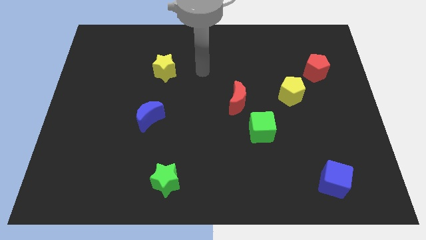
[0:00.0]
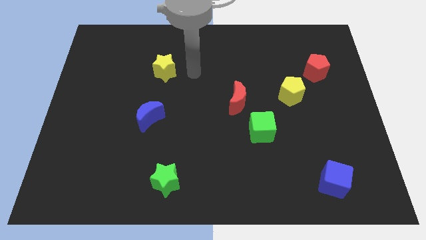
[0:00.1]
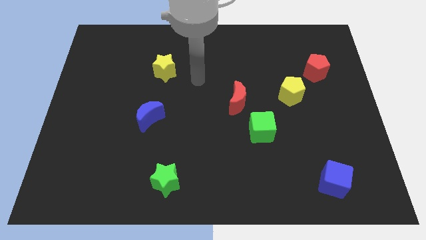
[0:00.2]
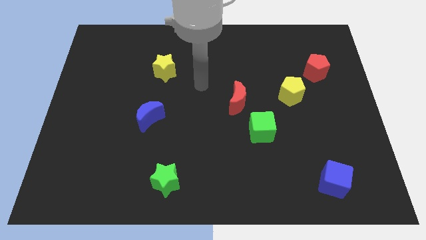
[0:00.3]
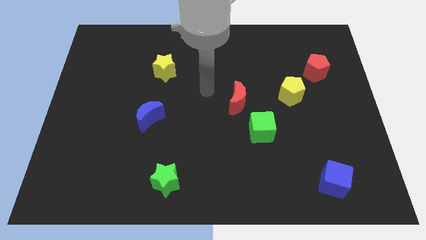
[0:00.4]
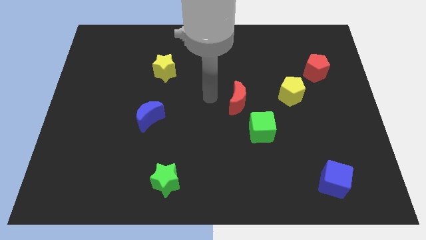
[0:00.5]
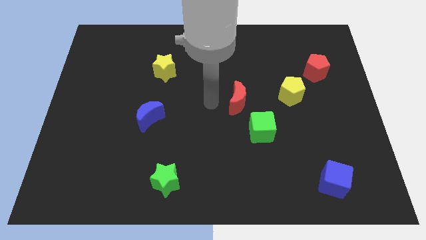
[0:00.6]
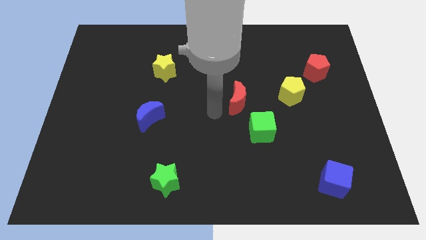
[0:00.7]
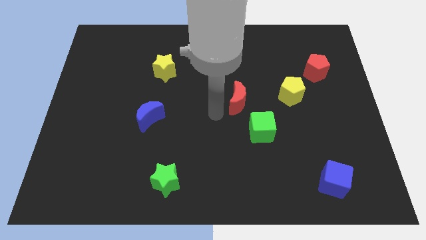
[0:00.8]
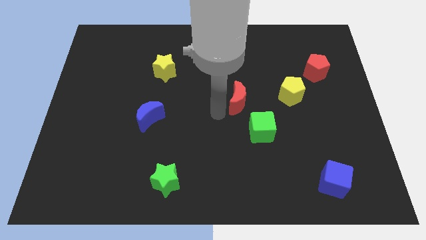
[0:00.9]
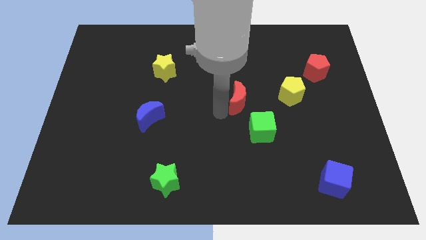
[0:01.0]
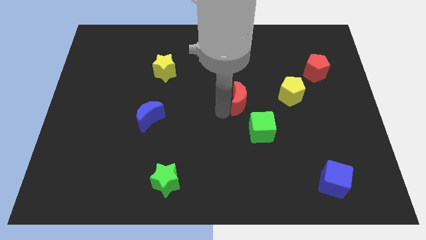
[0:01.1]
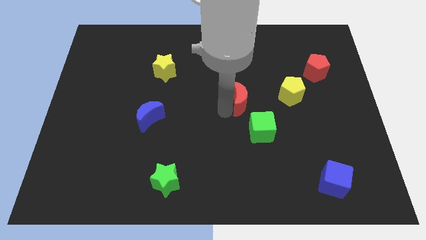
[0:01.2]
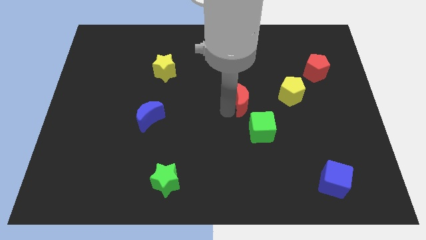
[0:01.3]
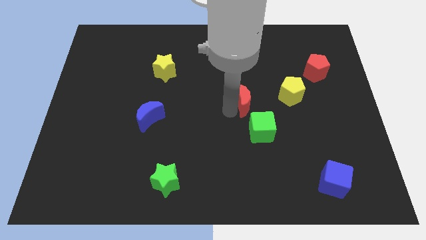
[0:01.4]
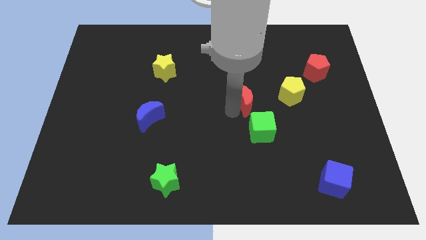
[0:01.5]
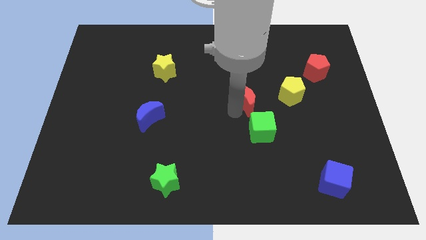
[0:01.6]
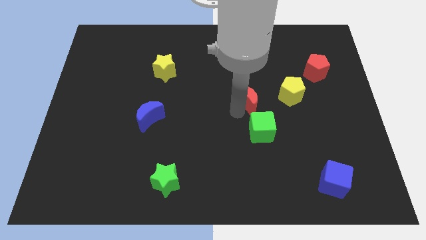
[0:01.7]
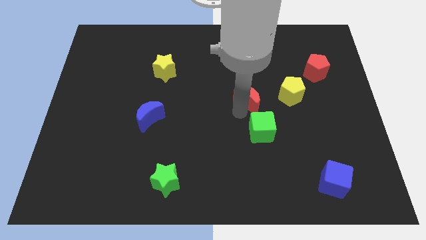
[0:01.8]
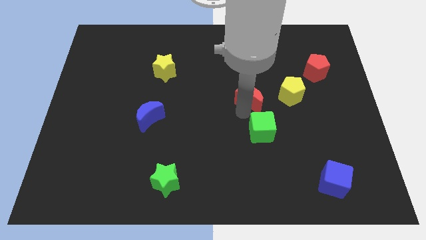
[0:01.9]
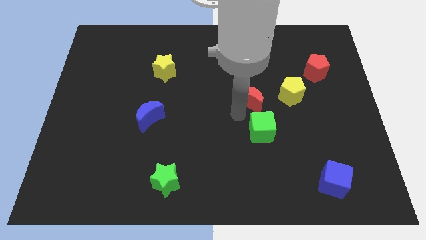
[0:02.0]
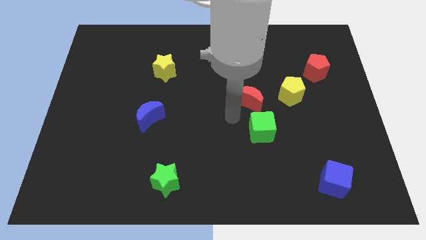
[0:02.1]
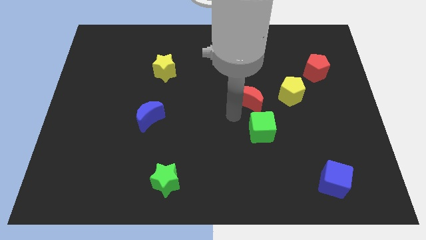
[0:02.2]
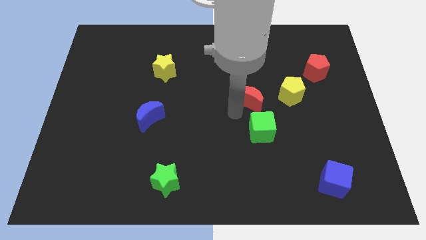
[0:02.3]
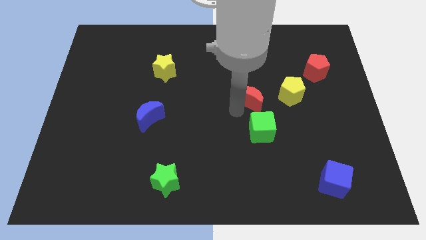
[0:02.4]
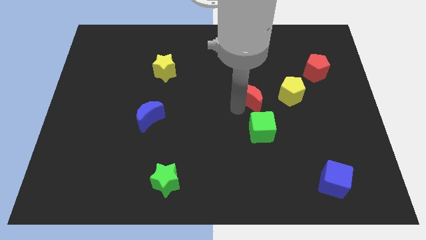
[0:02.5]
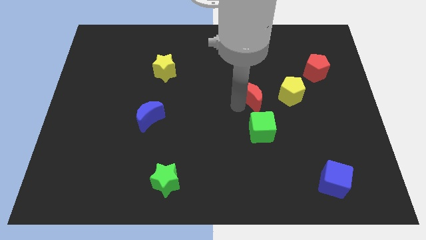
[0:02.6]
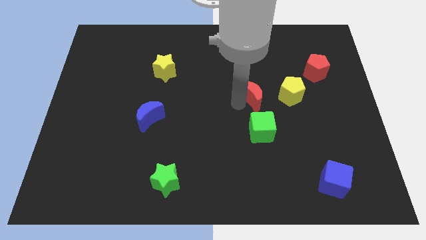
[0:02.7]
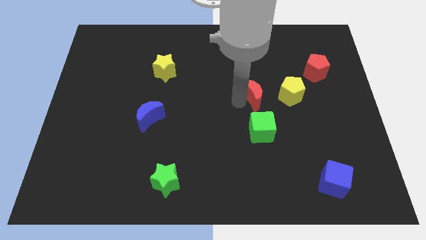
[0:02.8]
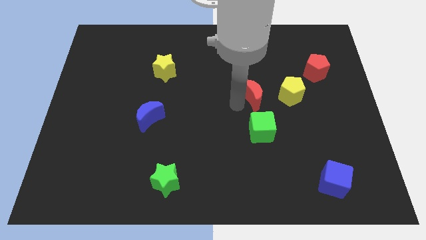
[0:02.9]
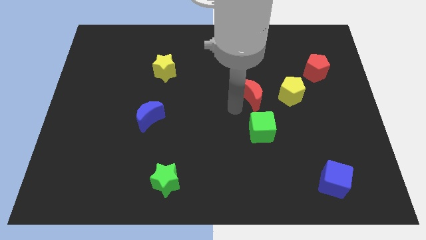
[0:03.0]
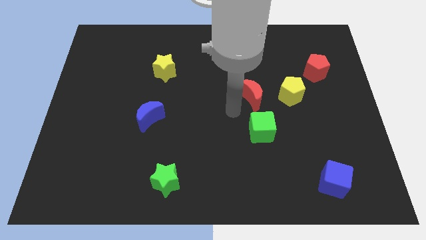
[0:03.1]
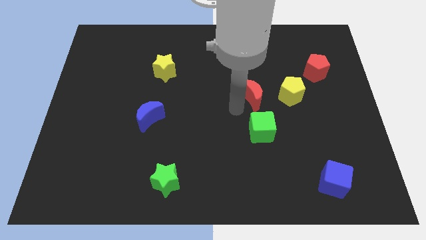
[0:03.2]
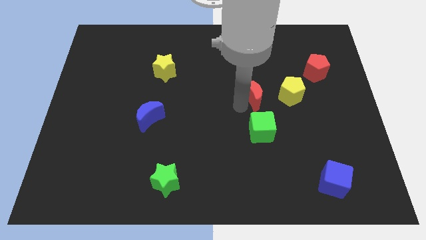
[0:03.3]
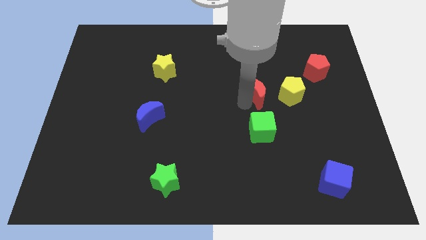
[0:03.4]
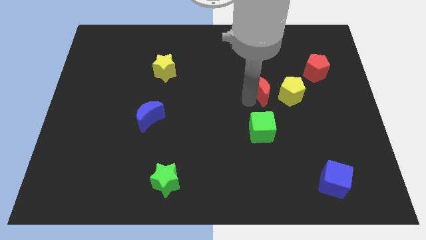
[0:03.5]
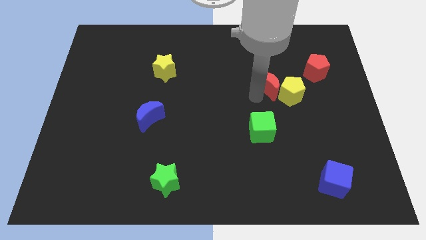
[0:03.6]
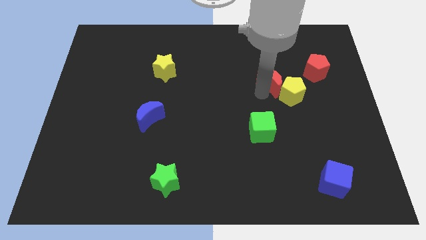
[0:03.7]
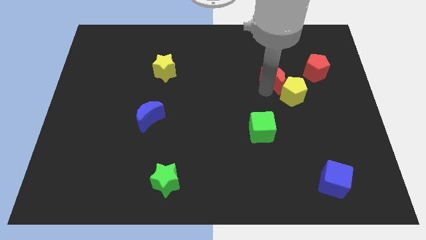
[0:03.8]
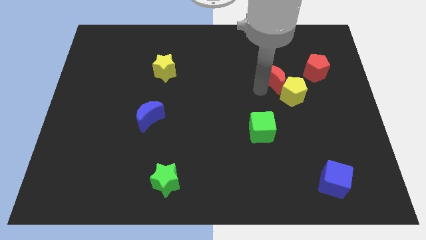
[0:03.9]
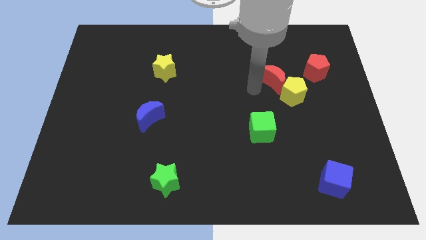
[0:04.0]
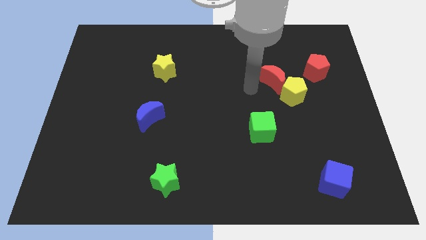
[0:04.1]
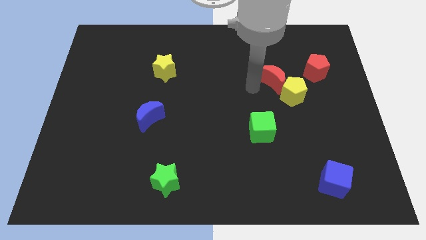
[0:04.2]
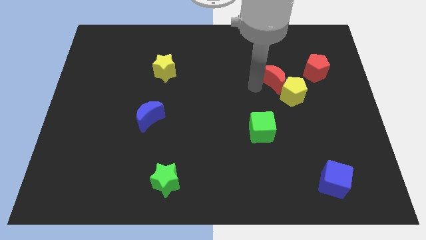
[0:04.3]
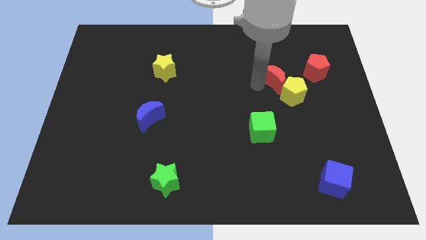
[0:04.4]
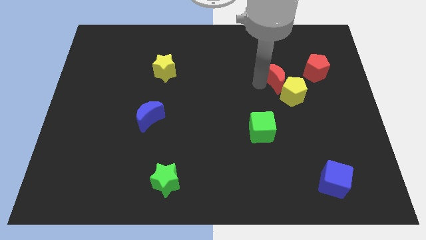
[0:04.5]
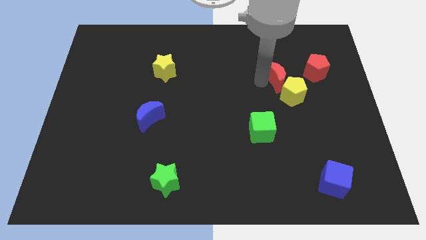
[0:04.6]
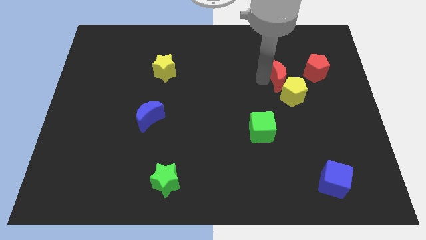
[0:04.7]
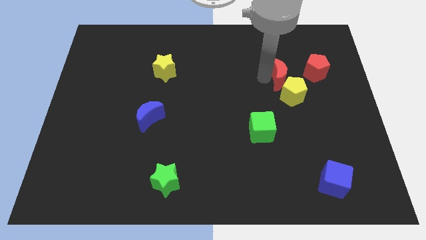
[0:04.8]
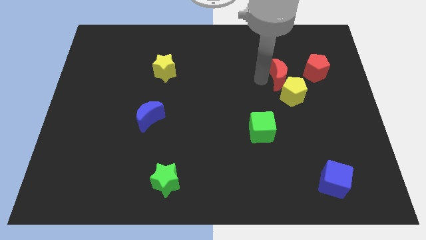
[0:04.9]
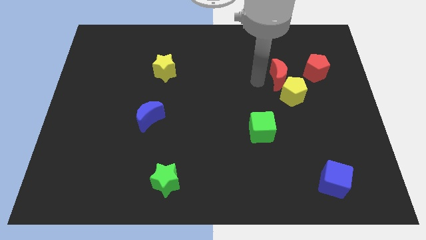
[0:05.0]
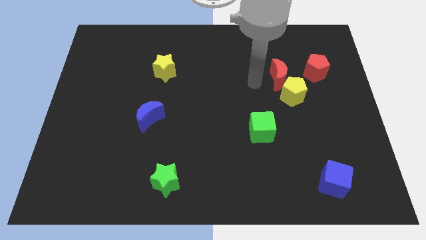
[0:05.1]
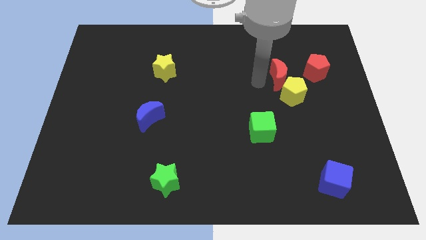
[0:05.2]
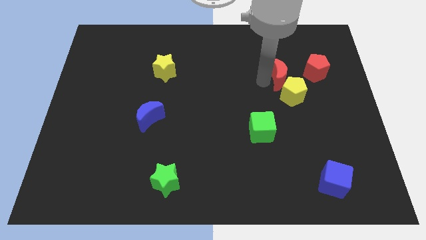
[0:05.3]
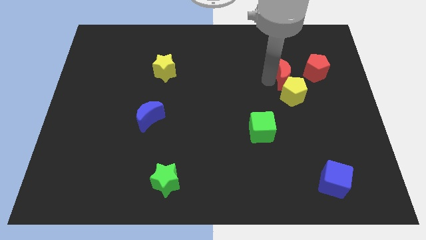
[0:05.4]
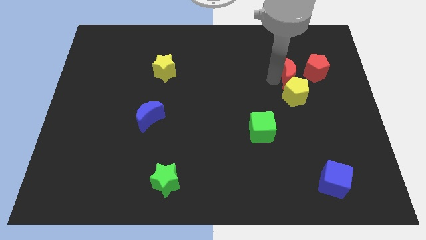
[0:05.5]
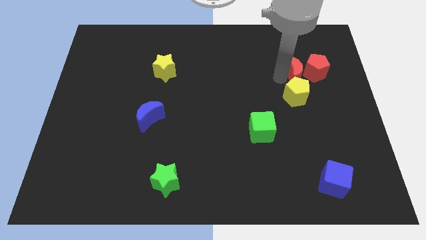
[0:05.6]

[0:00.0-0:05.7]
push the red moon next to the red pentagon

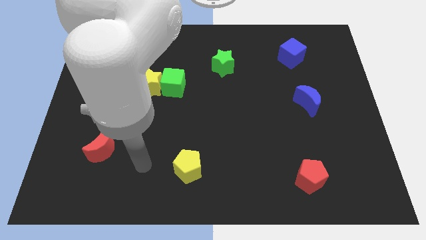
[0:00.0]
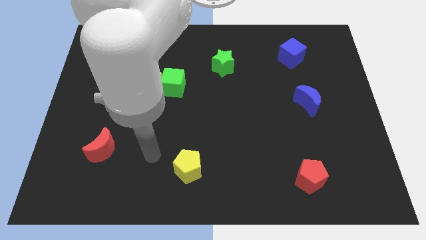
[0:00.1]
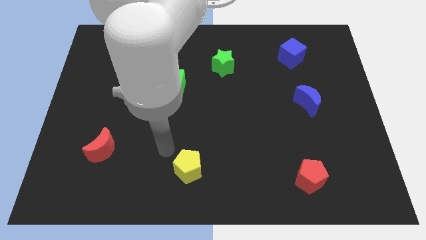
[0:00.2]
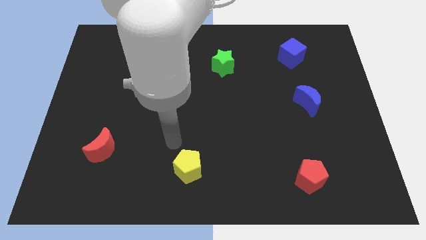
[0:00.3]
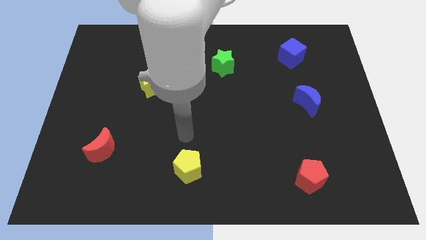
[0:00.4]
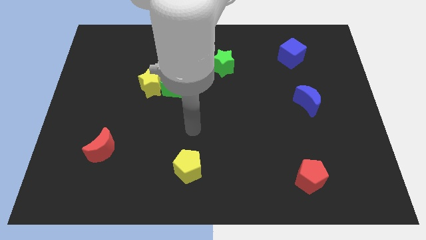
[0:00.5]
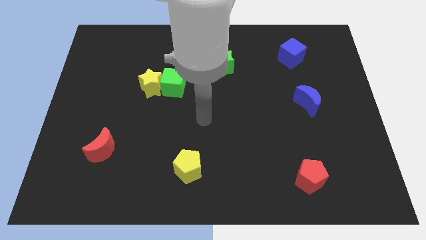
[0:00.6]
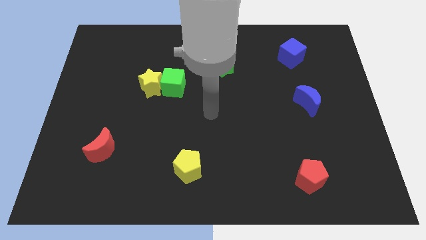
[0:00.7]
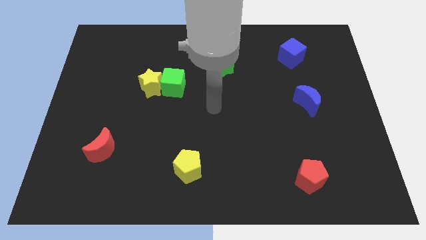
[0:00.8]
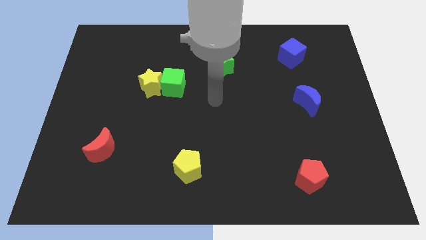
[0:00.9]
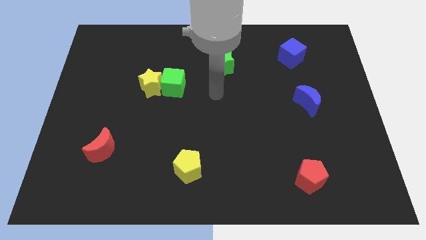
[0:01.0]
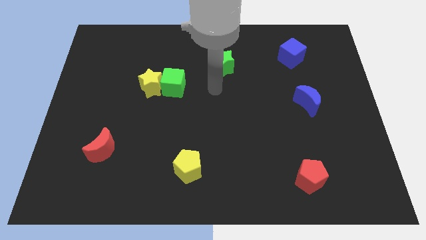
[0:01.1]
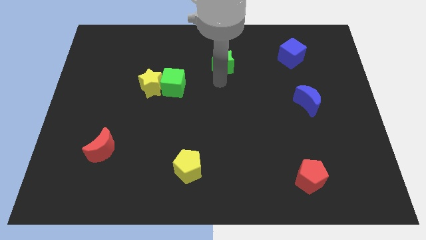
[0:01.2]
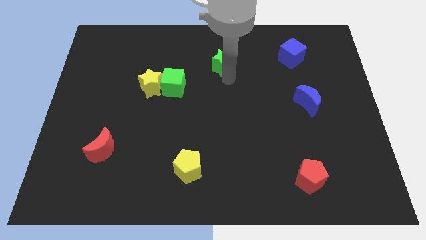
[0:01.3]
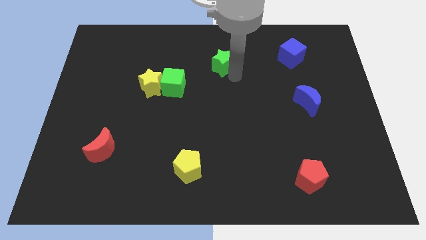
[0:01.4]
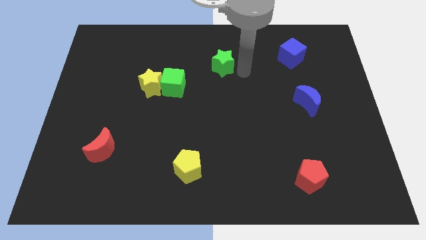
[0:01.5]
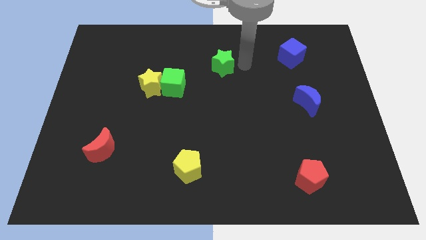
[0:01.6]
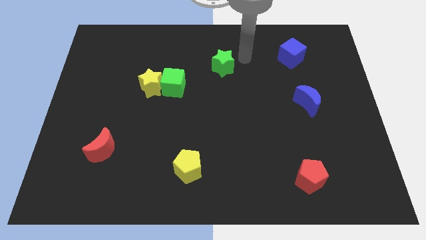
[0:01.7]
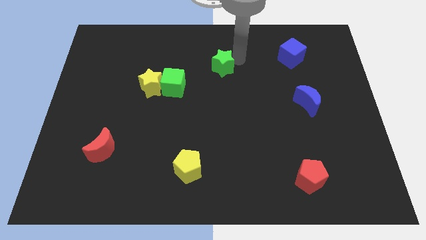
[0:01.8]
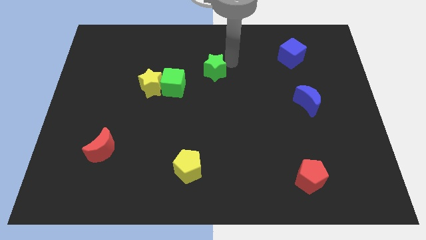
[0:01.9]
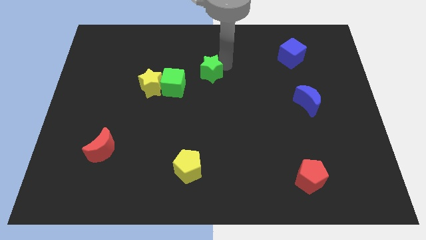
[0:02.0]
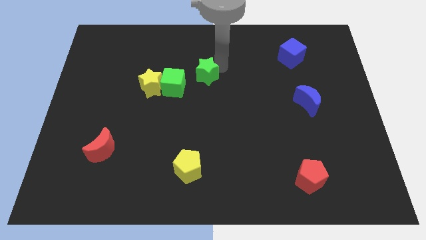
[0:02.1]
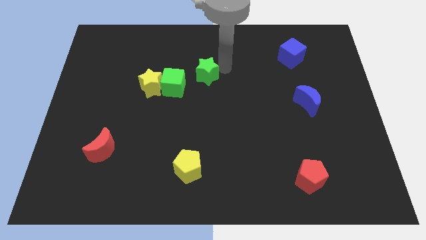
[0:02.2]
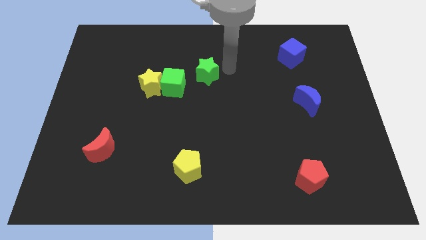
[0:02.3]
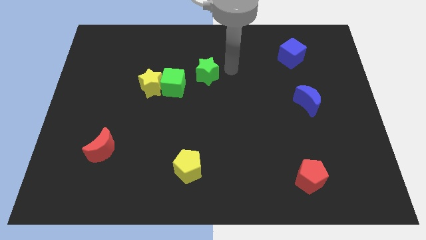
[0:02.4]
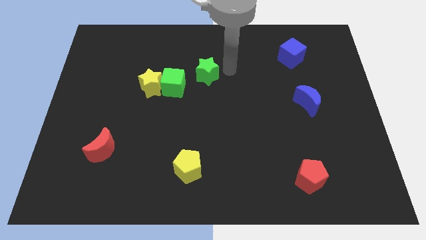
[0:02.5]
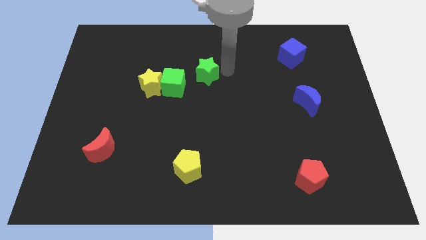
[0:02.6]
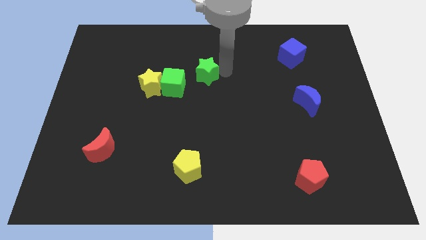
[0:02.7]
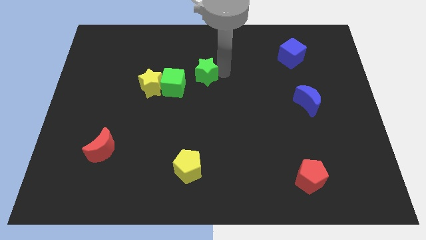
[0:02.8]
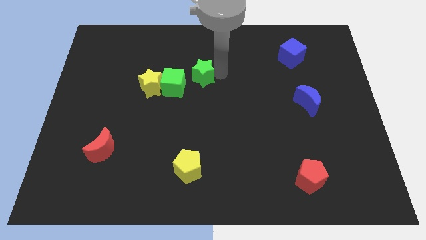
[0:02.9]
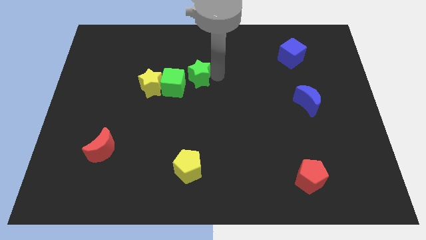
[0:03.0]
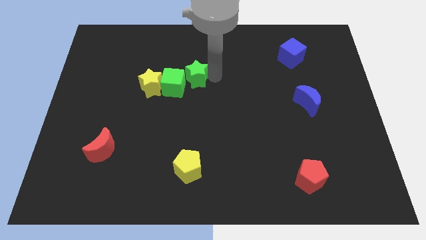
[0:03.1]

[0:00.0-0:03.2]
slide the green star towards the green cube
